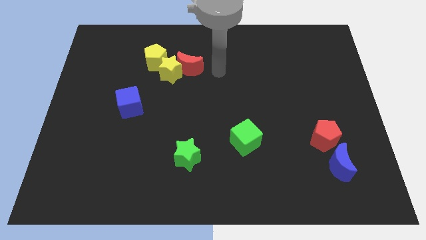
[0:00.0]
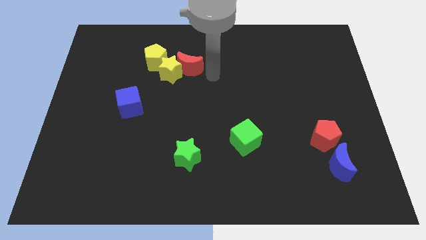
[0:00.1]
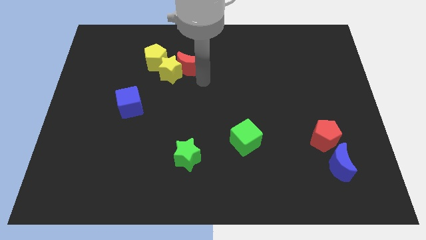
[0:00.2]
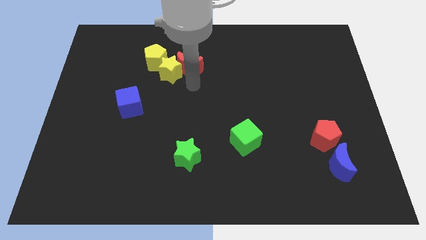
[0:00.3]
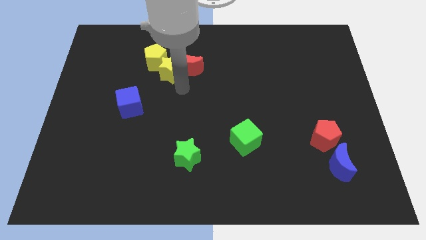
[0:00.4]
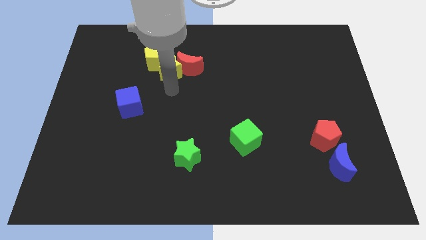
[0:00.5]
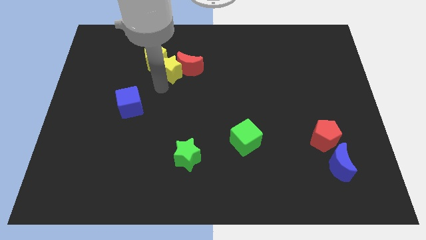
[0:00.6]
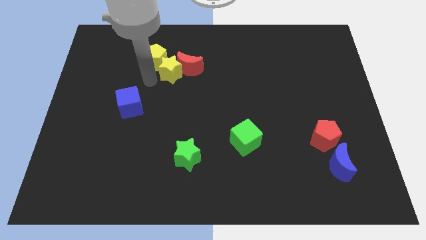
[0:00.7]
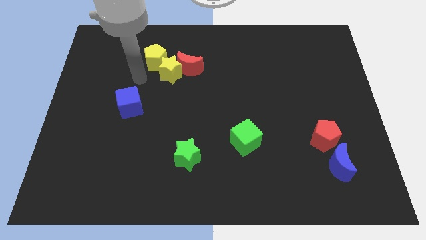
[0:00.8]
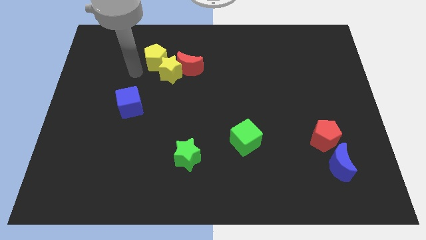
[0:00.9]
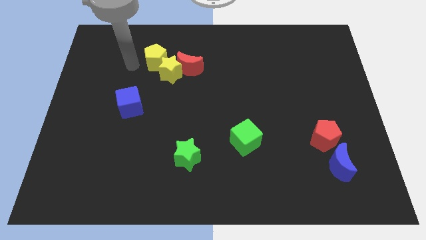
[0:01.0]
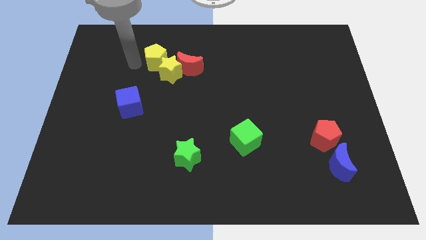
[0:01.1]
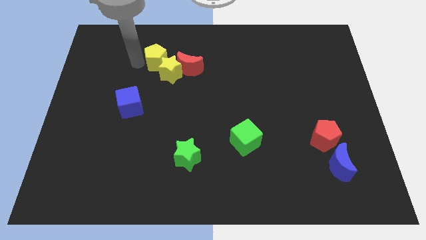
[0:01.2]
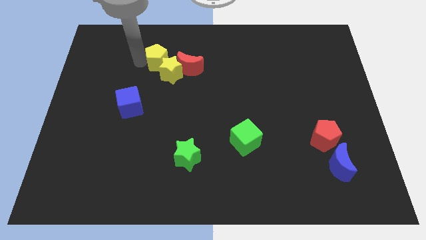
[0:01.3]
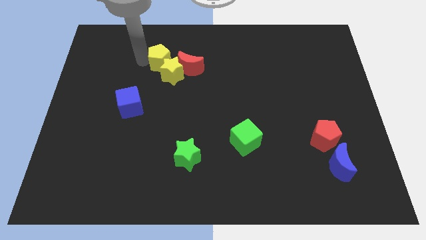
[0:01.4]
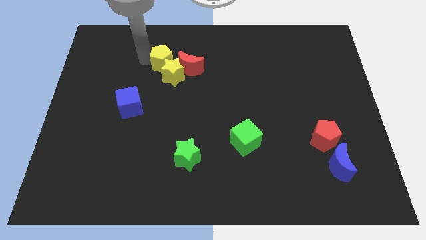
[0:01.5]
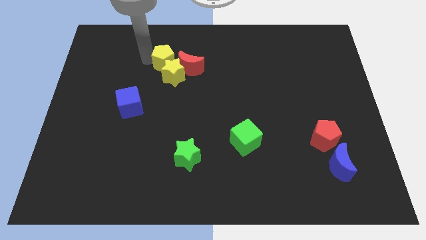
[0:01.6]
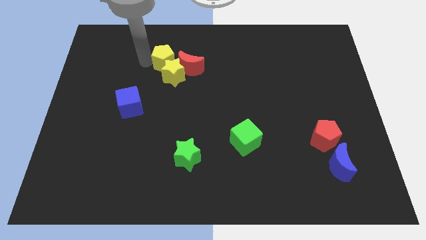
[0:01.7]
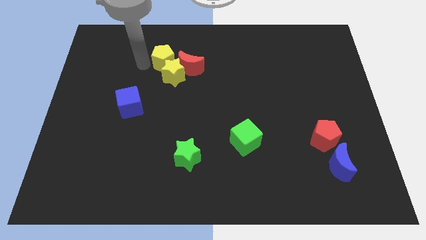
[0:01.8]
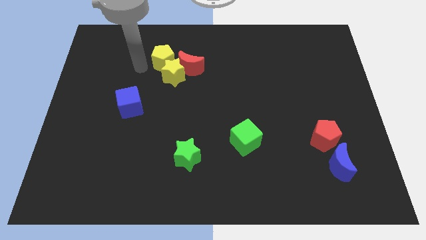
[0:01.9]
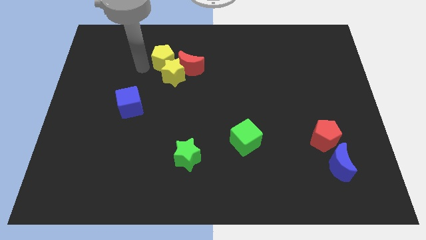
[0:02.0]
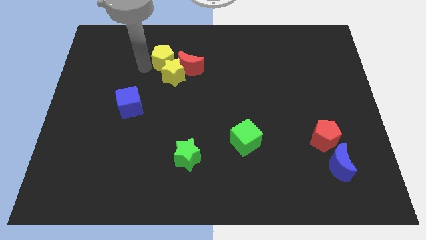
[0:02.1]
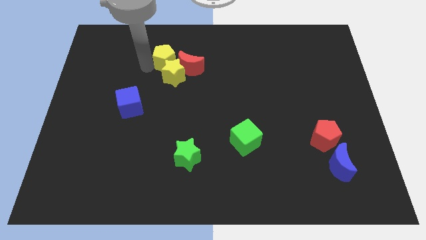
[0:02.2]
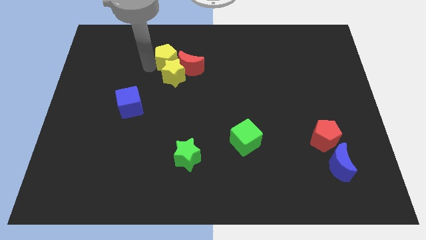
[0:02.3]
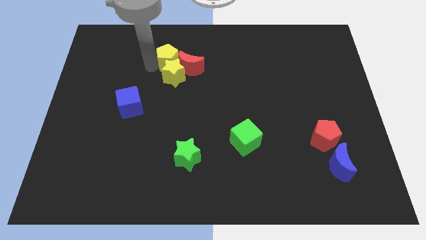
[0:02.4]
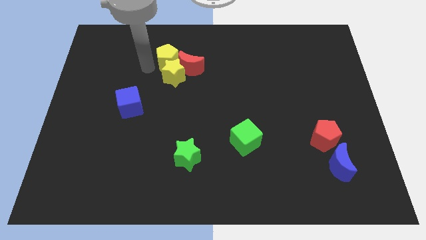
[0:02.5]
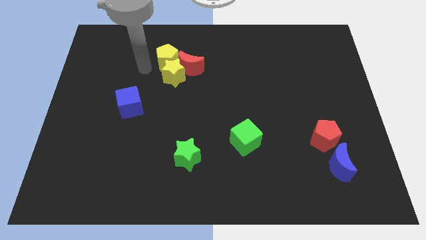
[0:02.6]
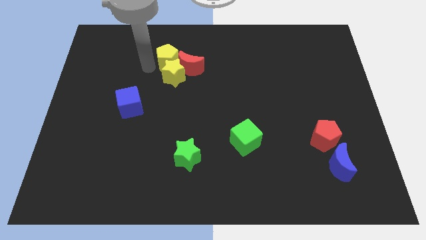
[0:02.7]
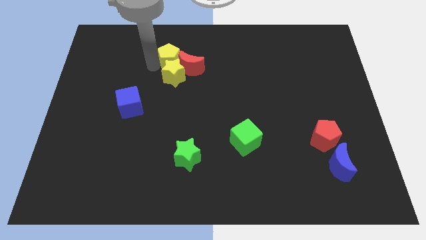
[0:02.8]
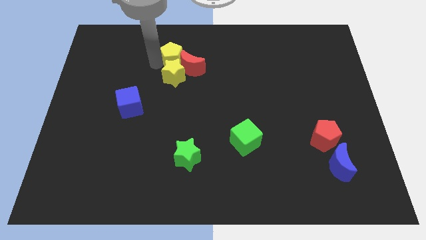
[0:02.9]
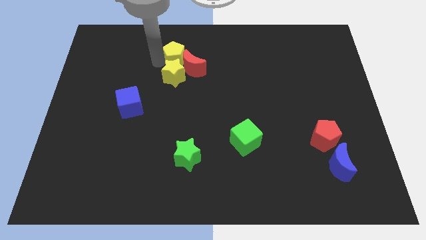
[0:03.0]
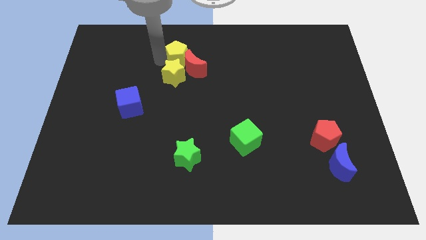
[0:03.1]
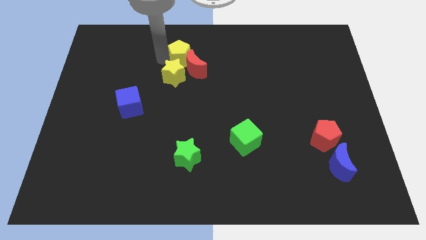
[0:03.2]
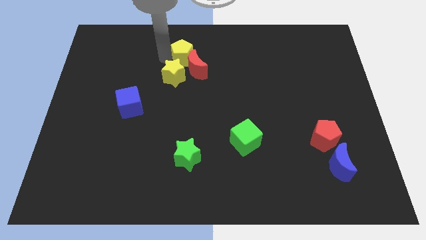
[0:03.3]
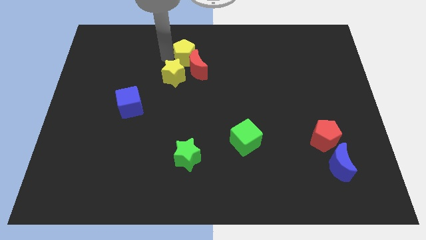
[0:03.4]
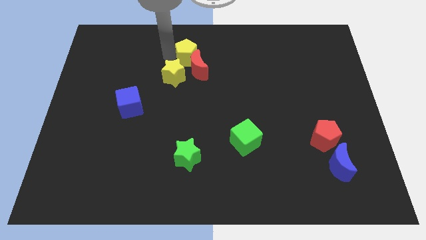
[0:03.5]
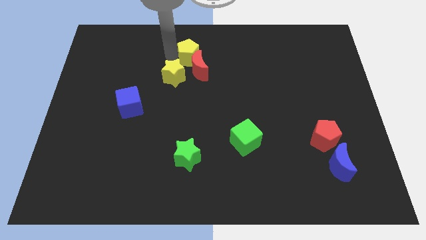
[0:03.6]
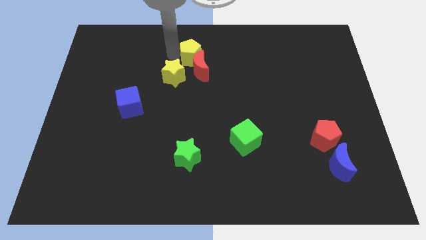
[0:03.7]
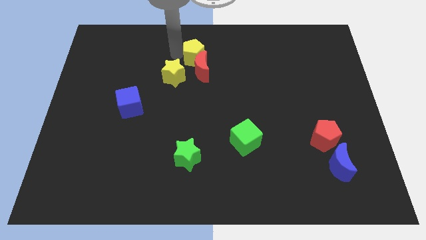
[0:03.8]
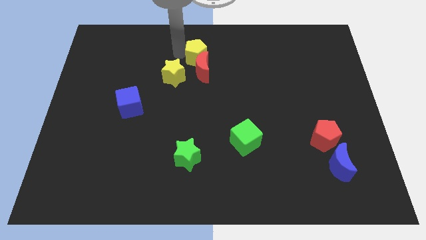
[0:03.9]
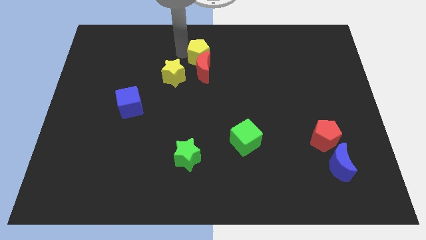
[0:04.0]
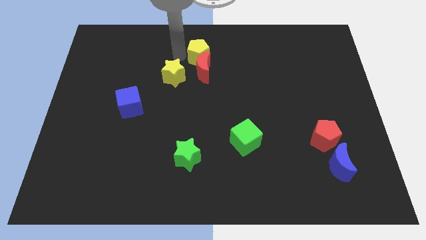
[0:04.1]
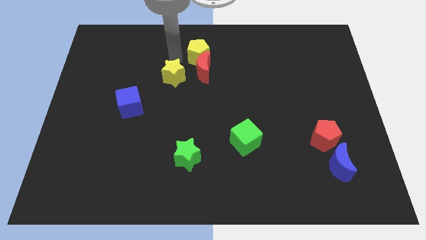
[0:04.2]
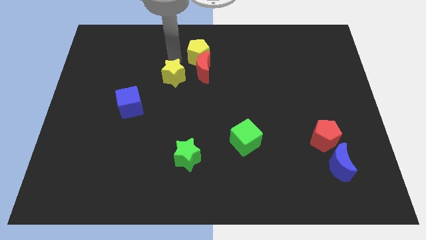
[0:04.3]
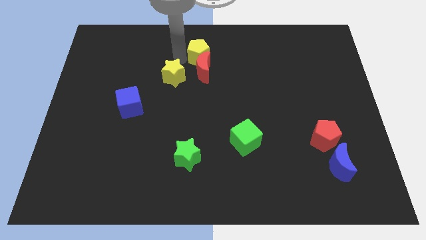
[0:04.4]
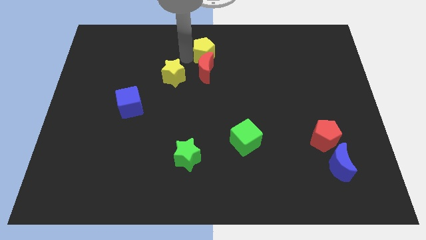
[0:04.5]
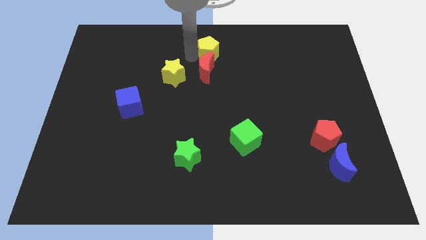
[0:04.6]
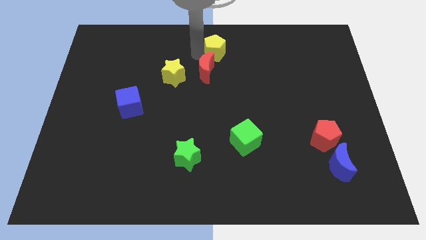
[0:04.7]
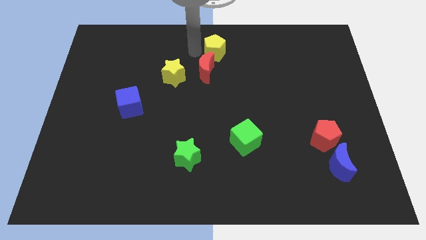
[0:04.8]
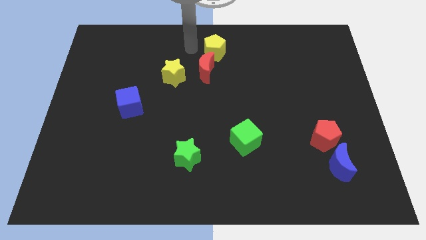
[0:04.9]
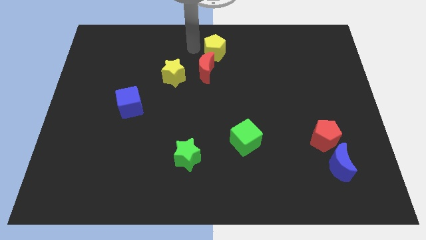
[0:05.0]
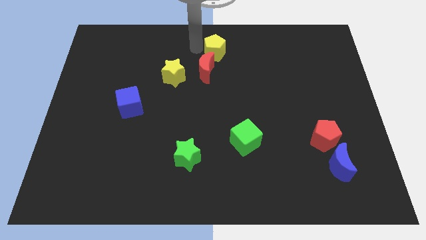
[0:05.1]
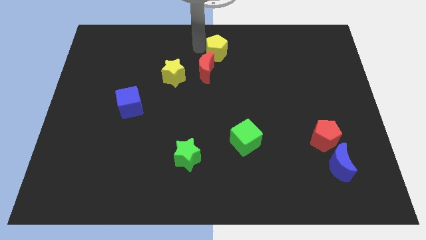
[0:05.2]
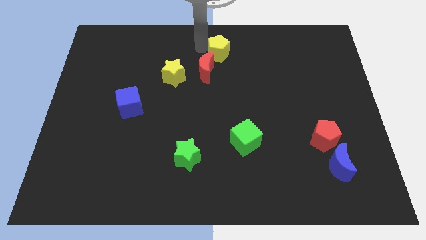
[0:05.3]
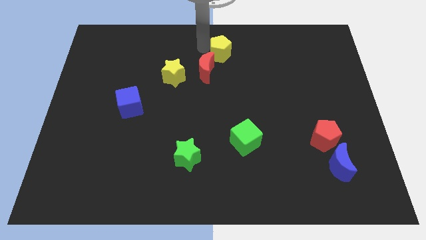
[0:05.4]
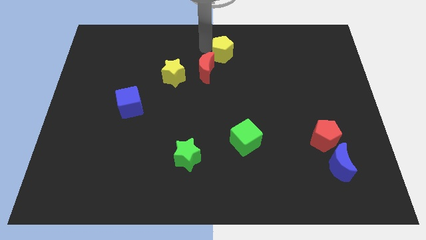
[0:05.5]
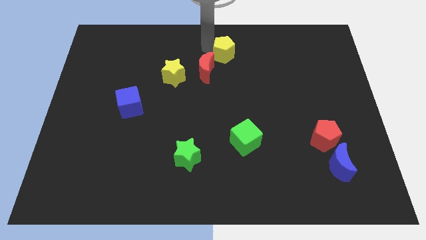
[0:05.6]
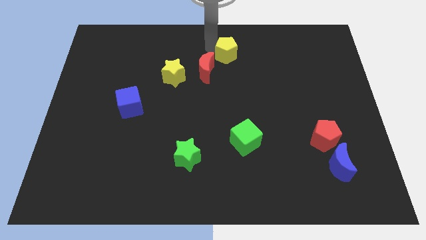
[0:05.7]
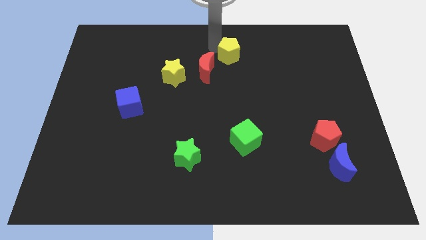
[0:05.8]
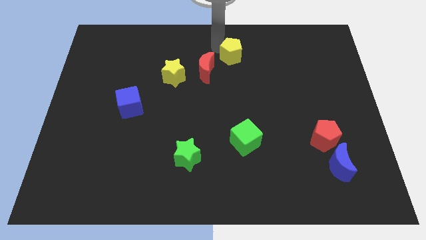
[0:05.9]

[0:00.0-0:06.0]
slide the yellow pentagon right

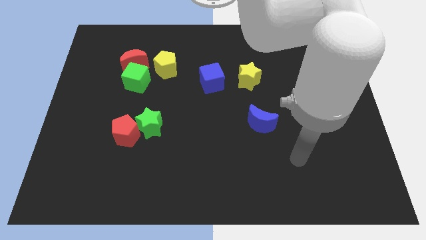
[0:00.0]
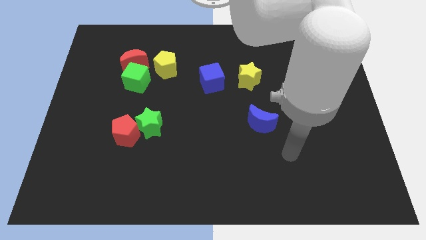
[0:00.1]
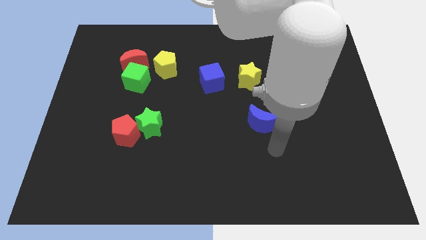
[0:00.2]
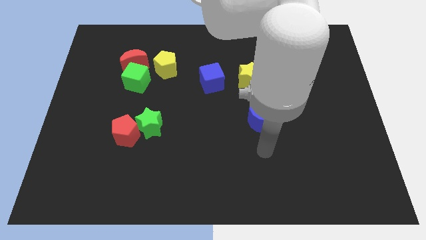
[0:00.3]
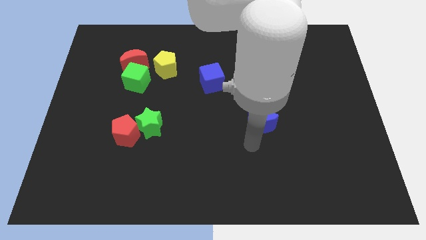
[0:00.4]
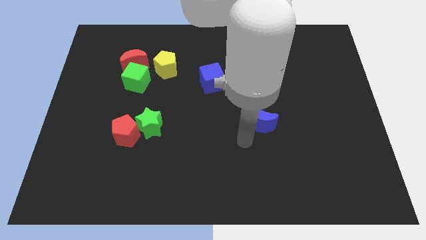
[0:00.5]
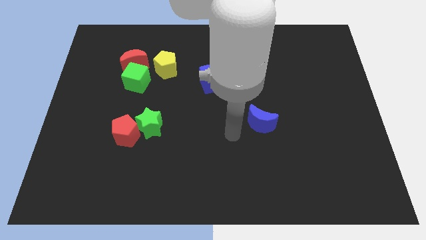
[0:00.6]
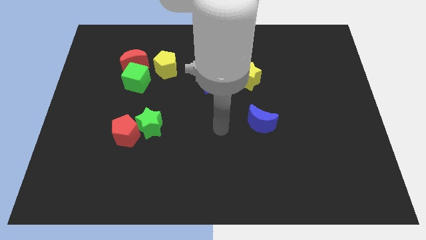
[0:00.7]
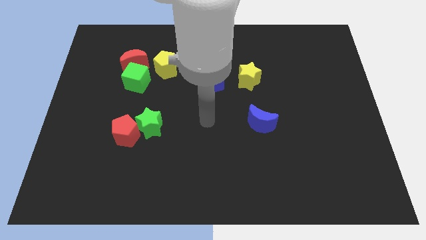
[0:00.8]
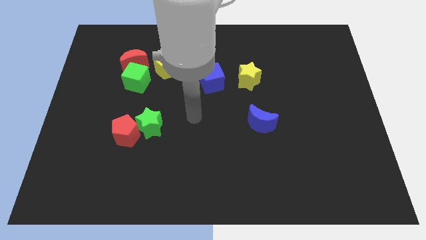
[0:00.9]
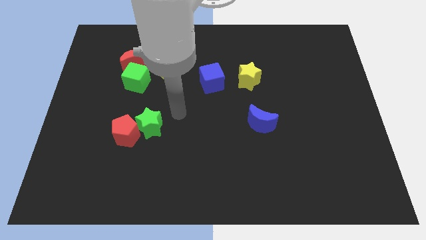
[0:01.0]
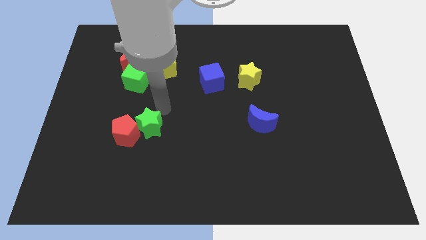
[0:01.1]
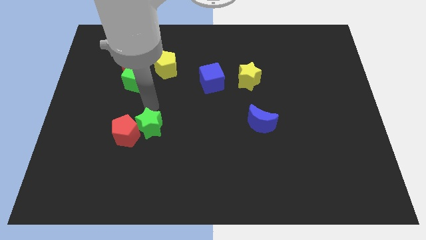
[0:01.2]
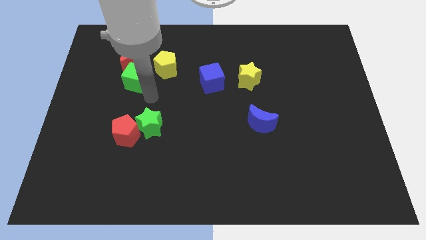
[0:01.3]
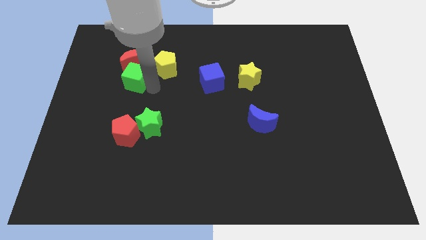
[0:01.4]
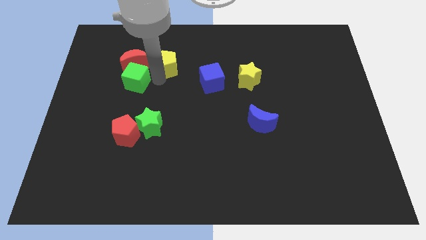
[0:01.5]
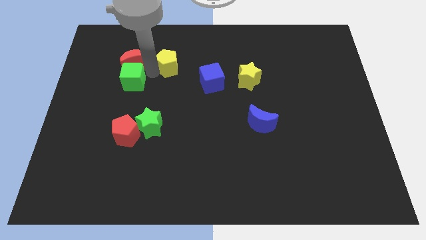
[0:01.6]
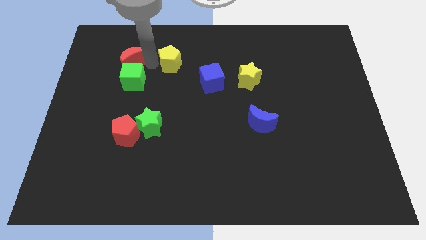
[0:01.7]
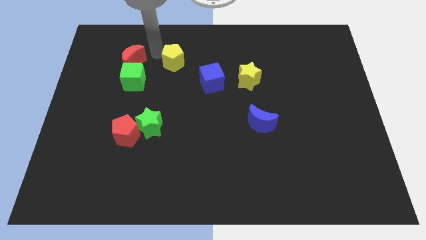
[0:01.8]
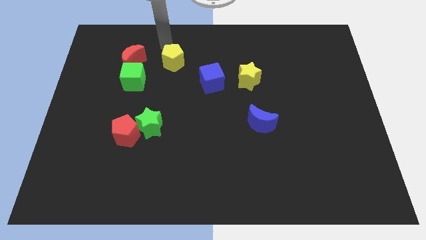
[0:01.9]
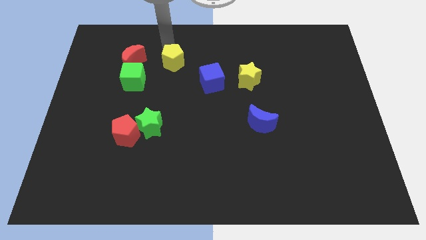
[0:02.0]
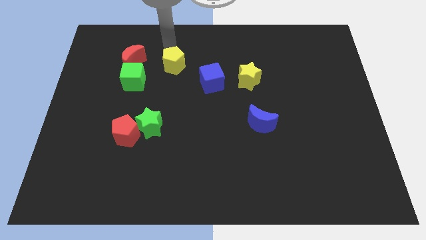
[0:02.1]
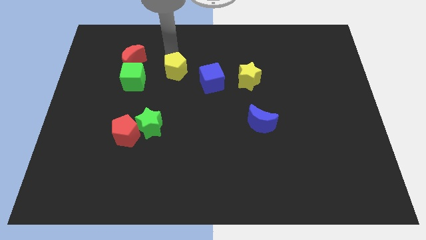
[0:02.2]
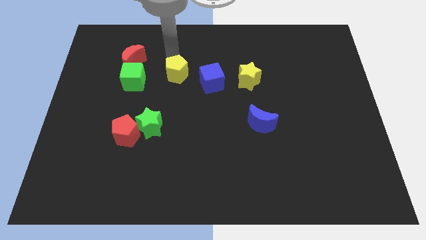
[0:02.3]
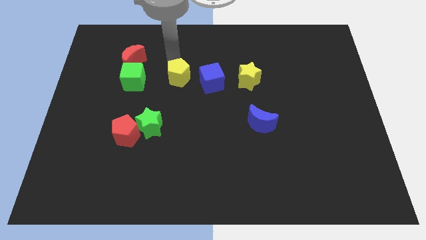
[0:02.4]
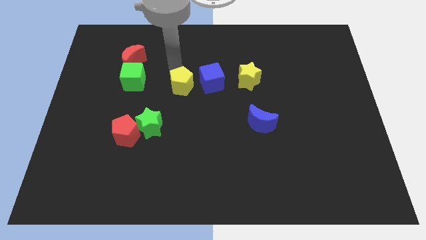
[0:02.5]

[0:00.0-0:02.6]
slightly move the yellow pentagon diagonally downwards and right
